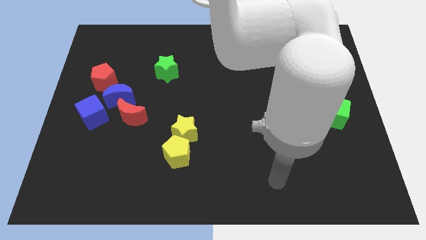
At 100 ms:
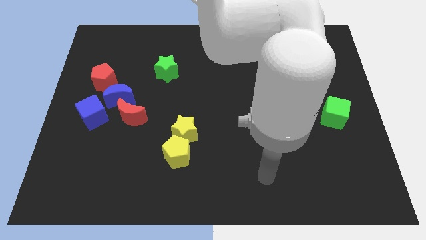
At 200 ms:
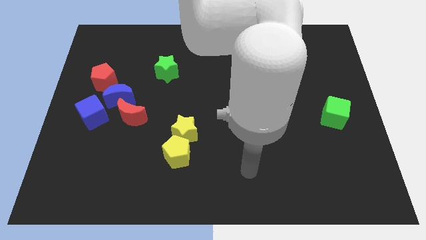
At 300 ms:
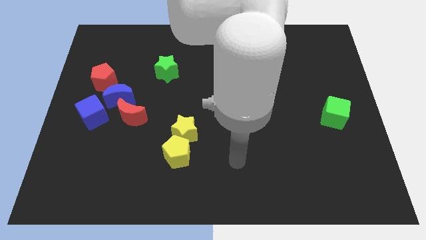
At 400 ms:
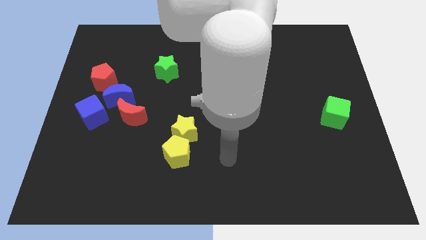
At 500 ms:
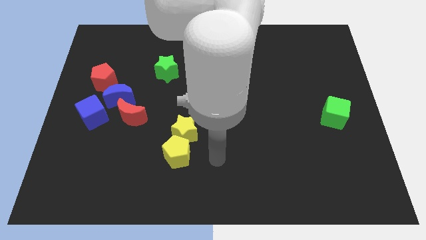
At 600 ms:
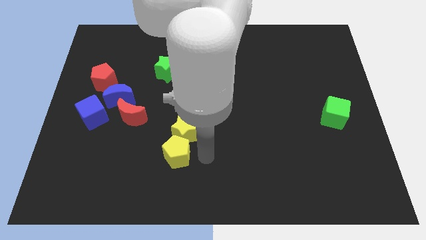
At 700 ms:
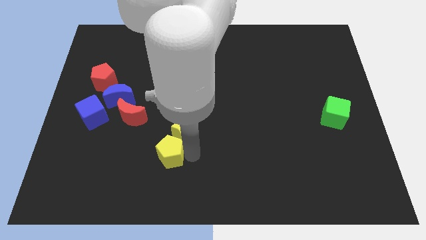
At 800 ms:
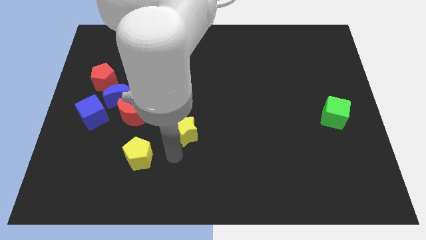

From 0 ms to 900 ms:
move the yellow star away from the yellow pentagon

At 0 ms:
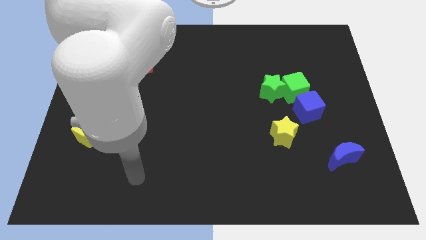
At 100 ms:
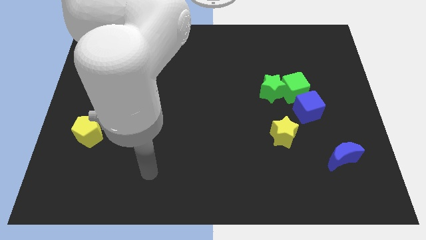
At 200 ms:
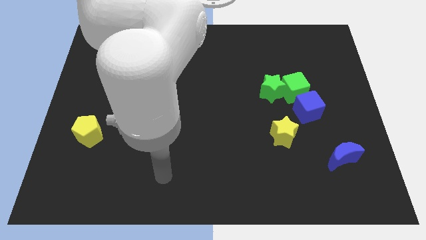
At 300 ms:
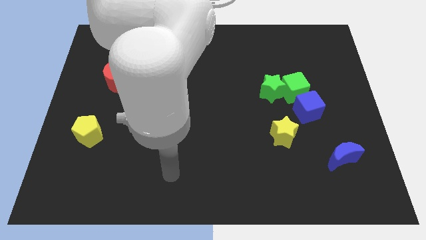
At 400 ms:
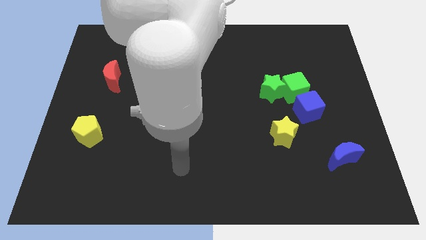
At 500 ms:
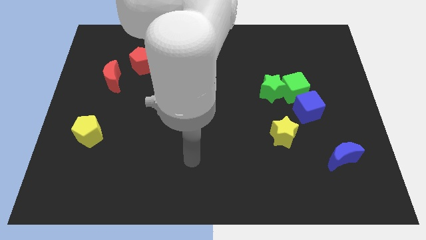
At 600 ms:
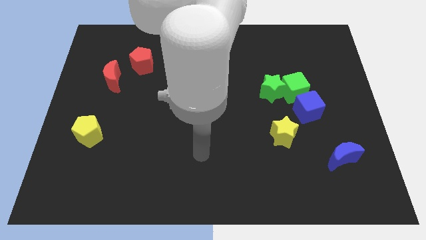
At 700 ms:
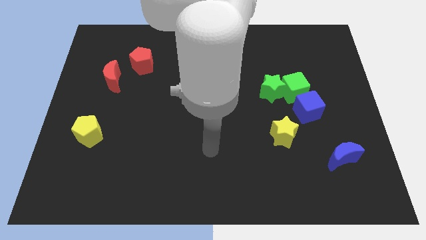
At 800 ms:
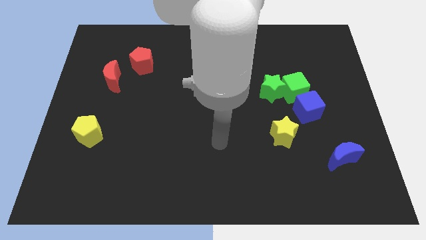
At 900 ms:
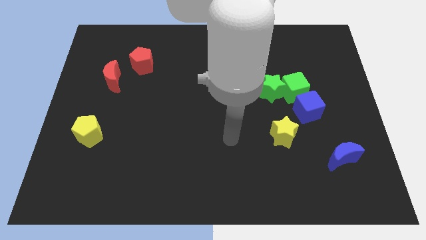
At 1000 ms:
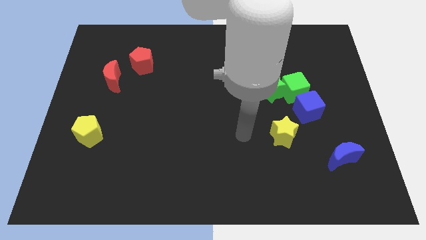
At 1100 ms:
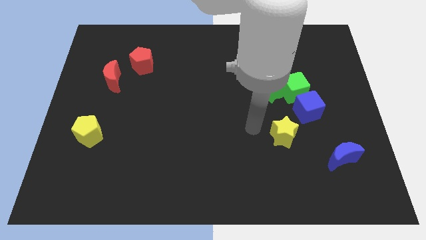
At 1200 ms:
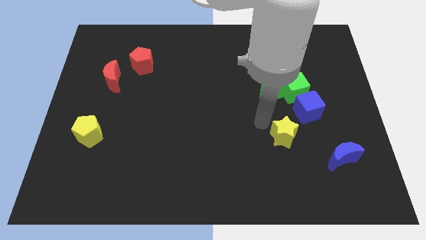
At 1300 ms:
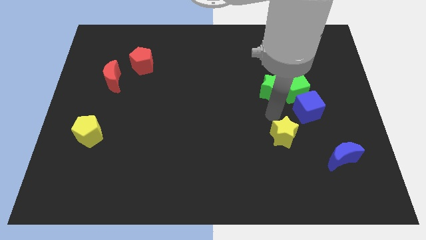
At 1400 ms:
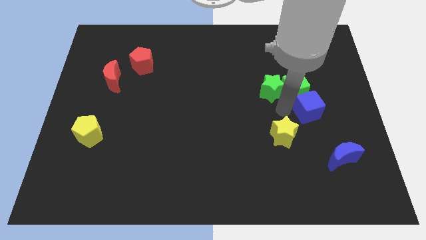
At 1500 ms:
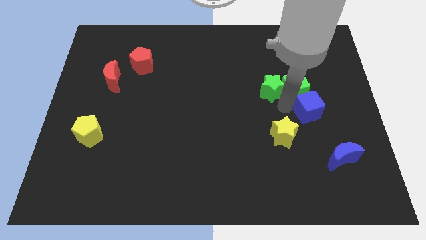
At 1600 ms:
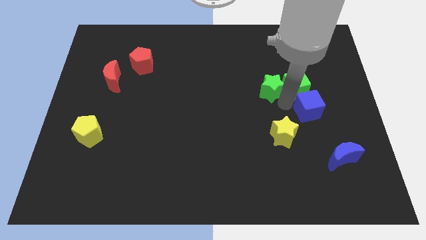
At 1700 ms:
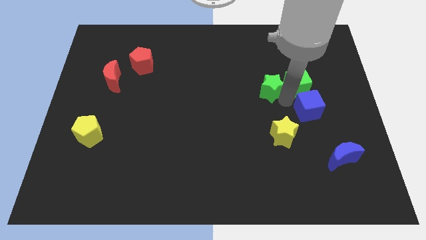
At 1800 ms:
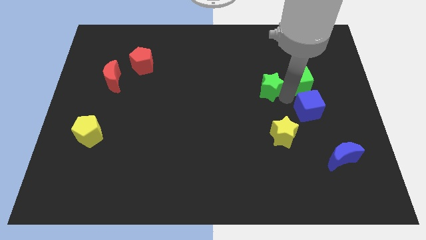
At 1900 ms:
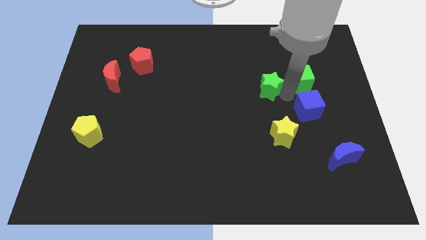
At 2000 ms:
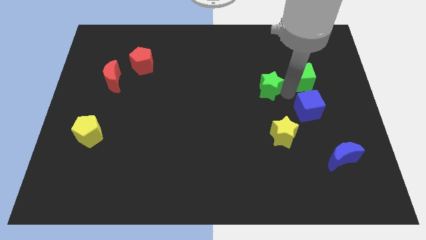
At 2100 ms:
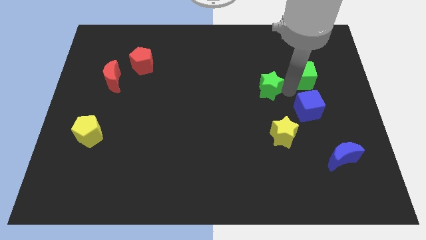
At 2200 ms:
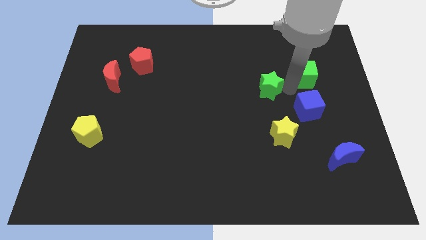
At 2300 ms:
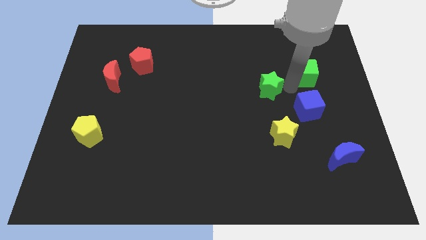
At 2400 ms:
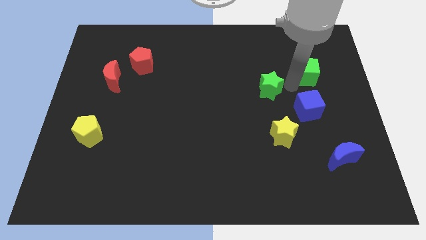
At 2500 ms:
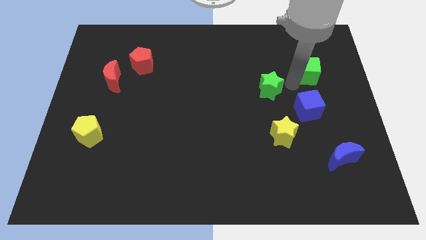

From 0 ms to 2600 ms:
pull the green cube apart from the green star and blue cube

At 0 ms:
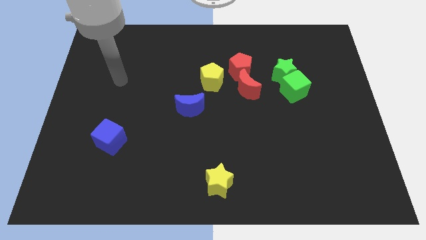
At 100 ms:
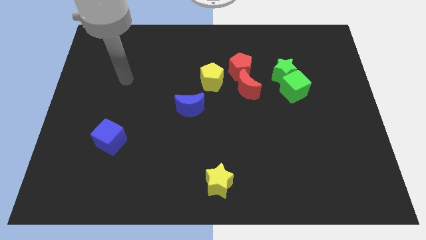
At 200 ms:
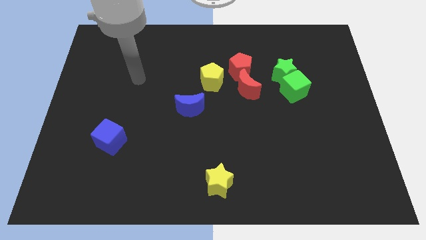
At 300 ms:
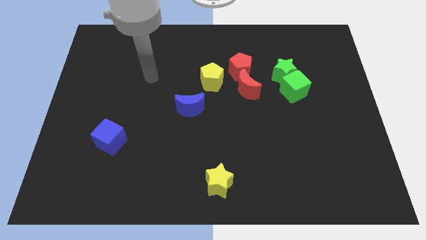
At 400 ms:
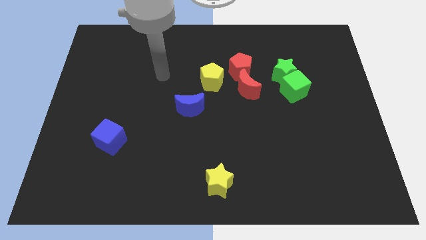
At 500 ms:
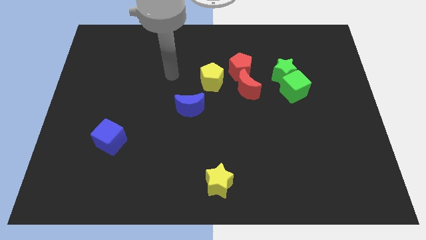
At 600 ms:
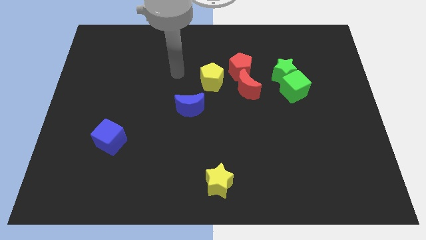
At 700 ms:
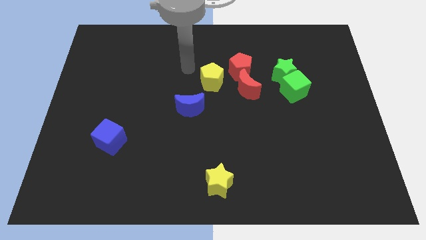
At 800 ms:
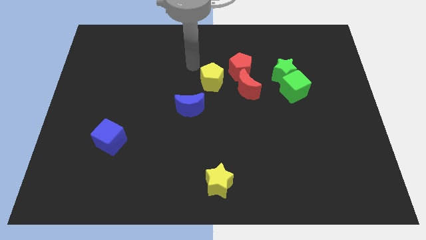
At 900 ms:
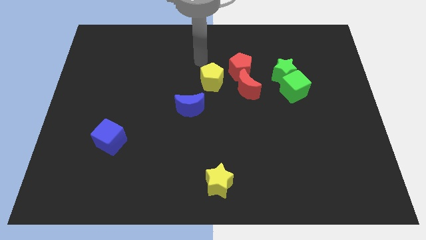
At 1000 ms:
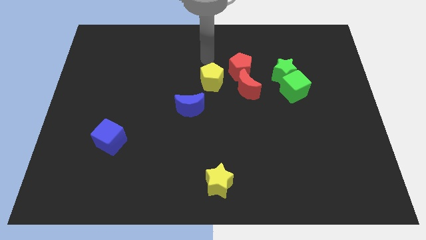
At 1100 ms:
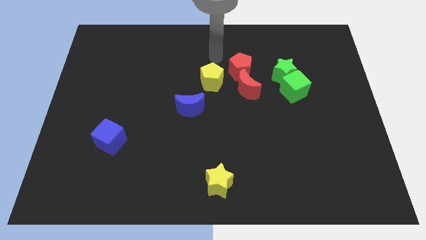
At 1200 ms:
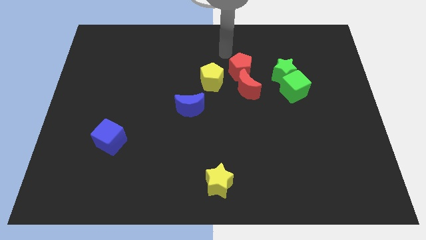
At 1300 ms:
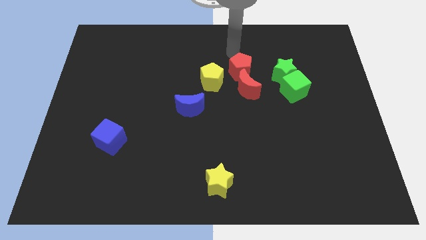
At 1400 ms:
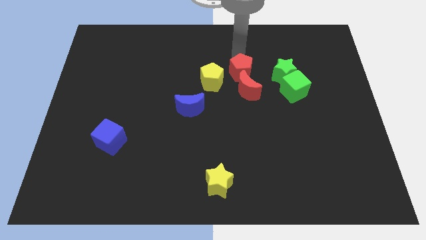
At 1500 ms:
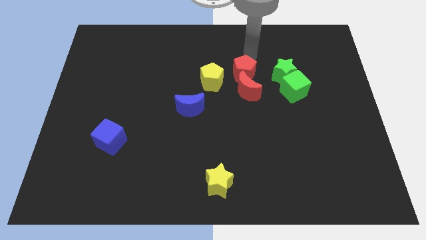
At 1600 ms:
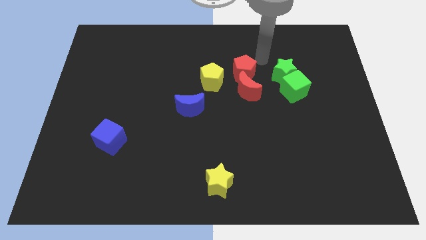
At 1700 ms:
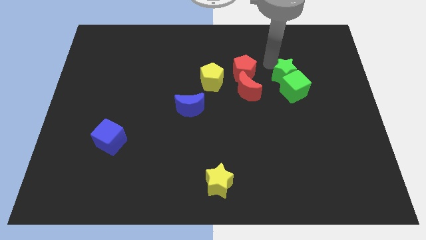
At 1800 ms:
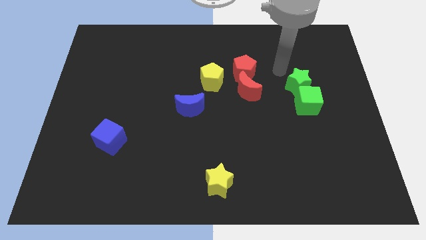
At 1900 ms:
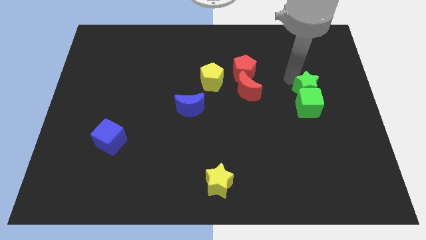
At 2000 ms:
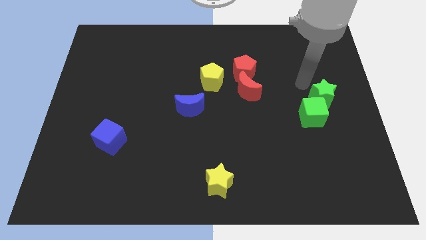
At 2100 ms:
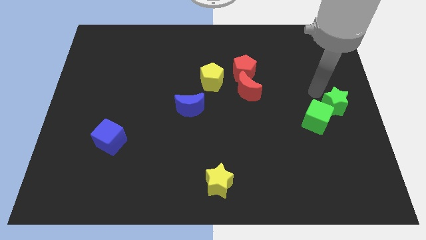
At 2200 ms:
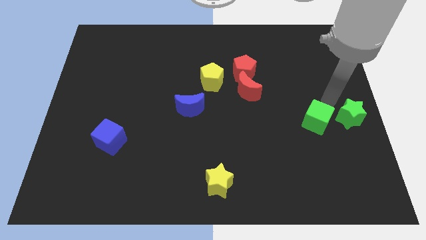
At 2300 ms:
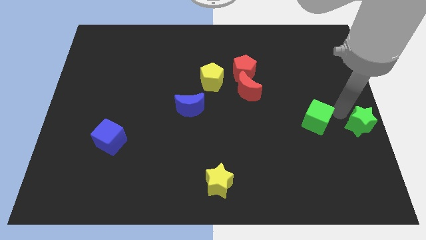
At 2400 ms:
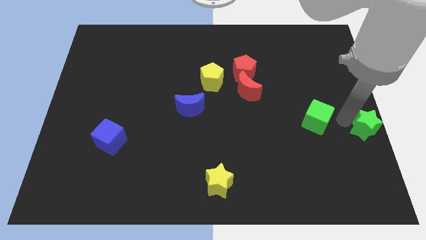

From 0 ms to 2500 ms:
separate the green cube from the green star

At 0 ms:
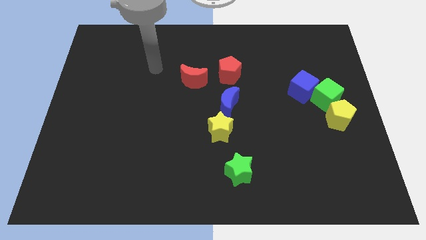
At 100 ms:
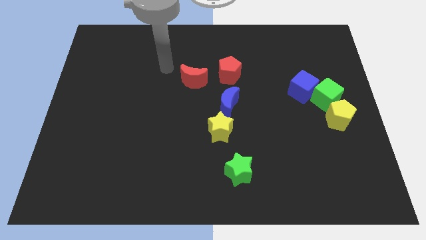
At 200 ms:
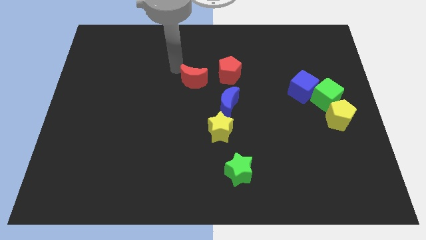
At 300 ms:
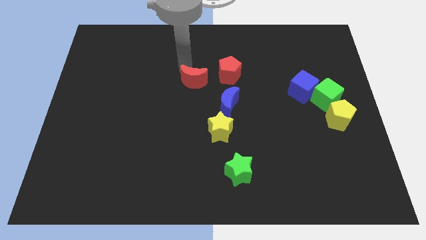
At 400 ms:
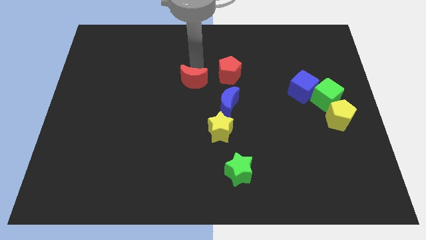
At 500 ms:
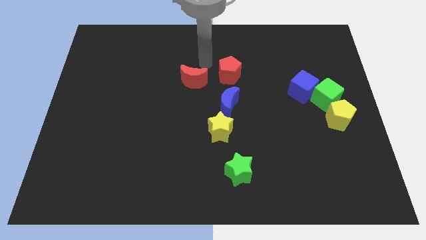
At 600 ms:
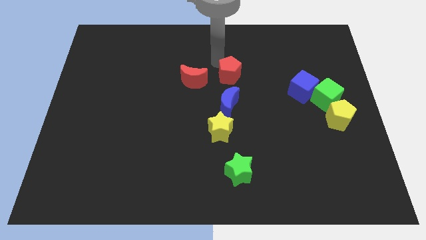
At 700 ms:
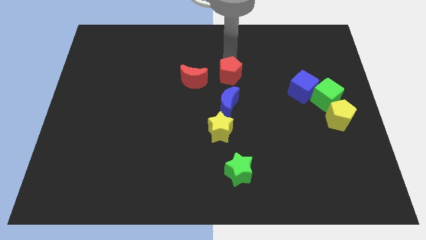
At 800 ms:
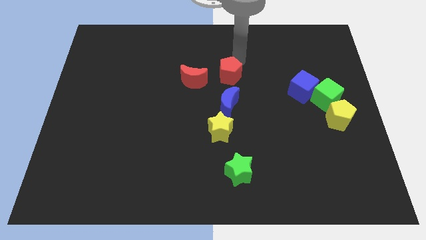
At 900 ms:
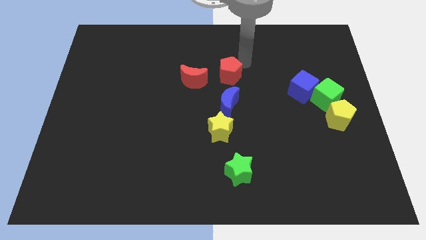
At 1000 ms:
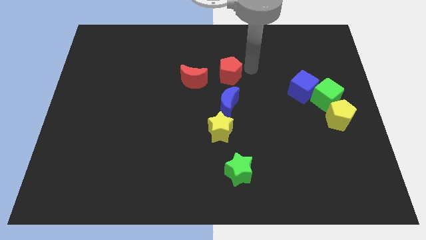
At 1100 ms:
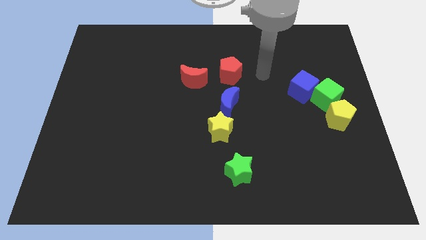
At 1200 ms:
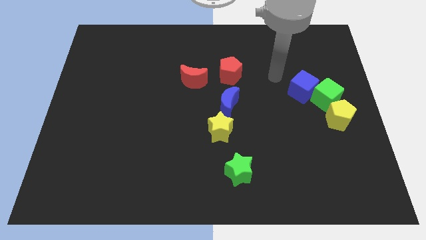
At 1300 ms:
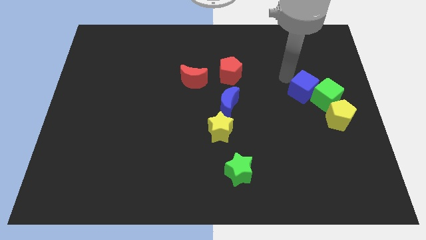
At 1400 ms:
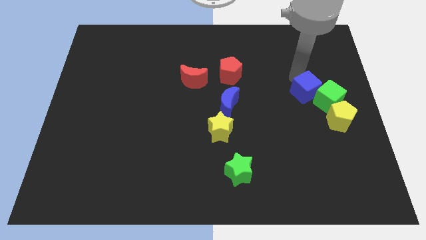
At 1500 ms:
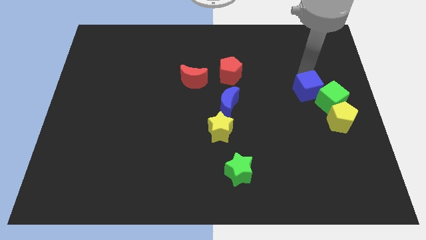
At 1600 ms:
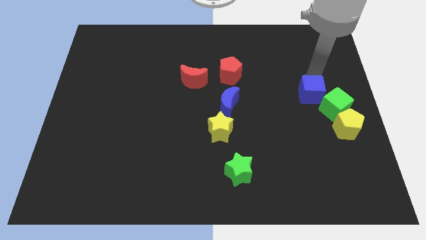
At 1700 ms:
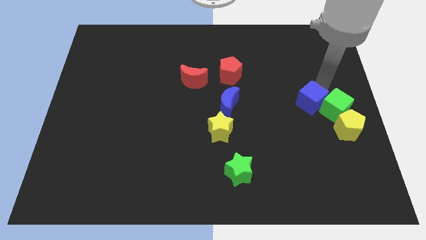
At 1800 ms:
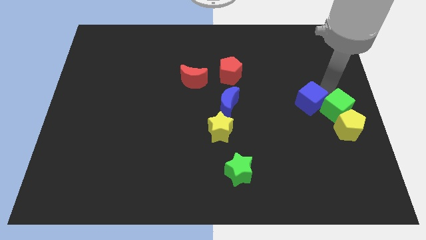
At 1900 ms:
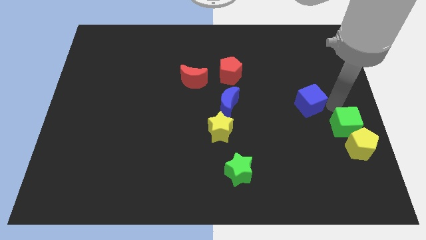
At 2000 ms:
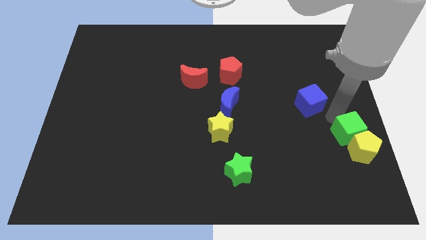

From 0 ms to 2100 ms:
separate the blue cube from the green cube

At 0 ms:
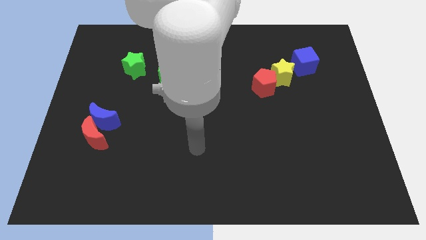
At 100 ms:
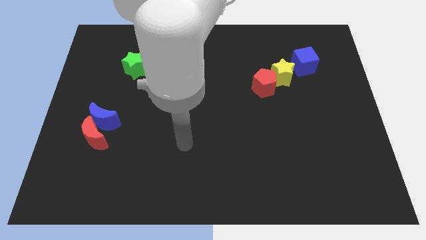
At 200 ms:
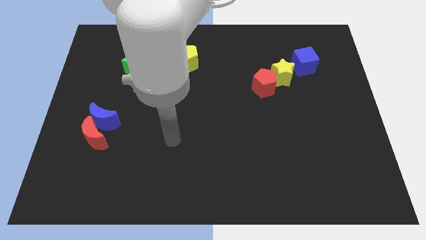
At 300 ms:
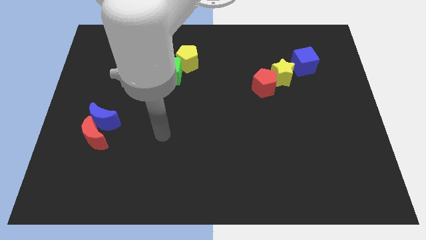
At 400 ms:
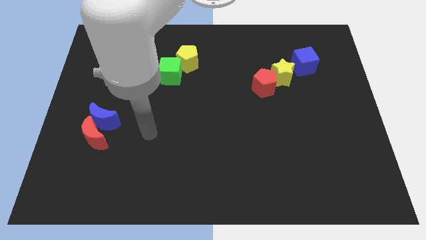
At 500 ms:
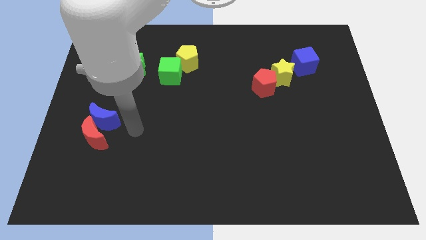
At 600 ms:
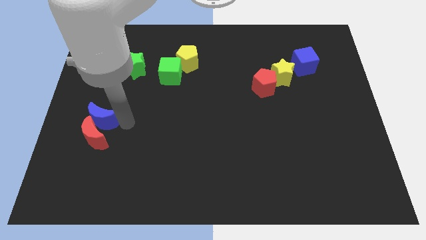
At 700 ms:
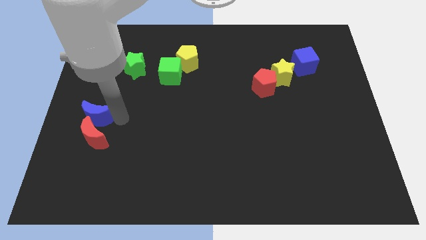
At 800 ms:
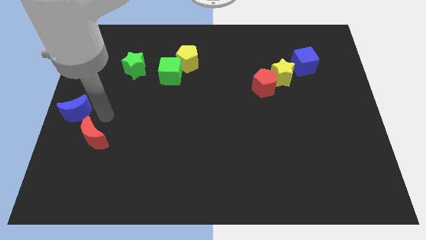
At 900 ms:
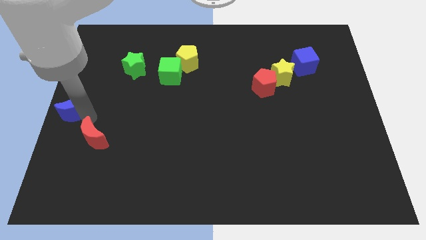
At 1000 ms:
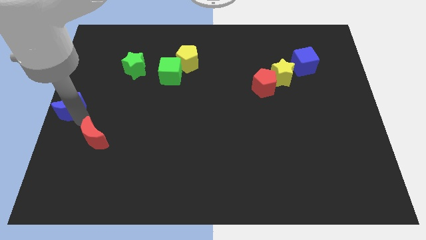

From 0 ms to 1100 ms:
separate the red moon from the blue moon
